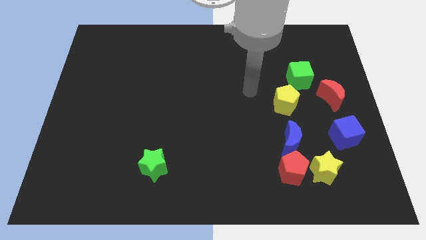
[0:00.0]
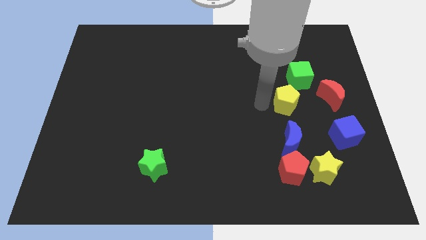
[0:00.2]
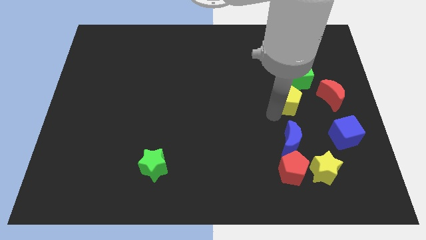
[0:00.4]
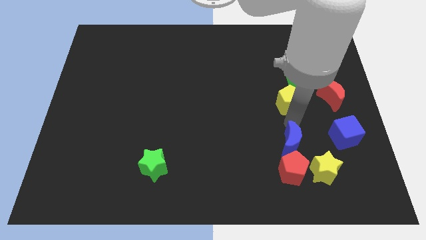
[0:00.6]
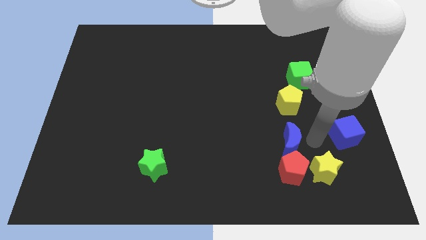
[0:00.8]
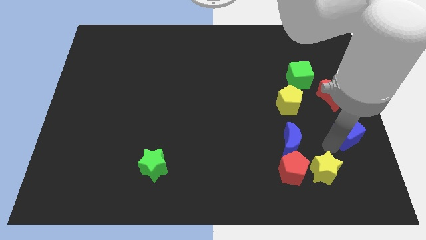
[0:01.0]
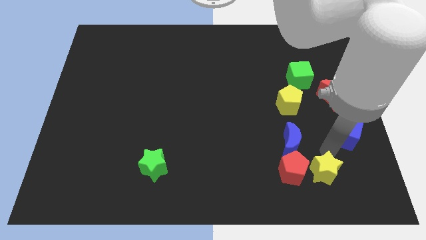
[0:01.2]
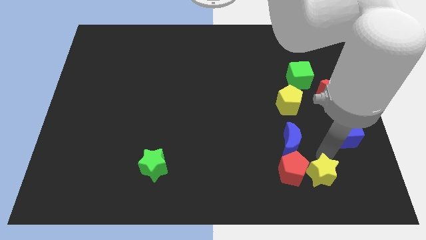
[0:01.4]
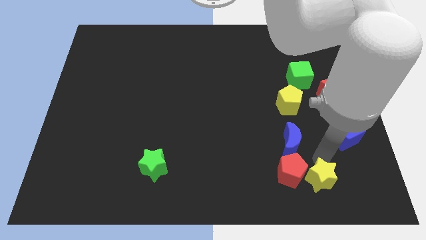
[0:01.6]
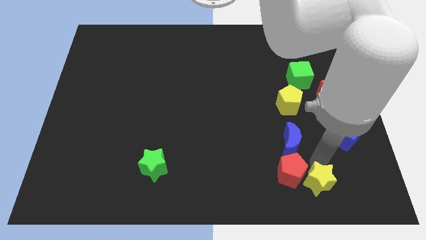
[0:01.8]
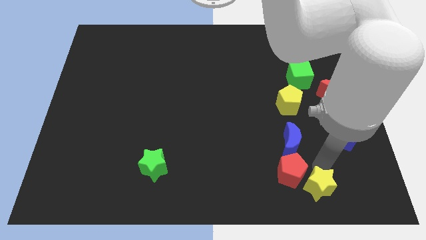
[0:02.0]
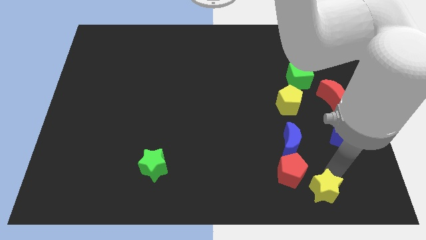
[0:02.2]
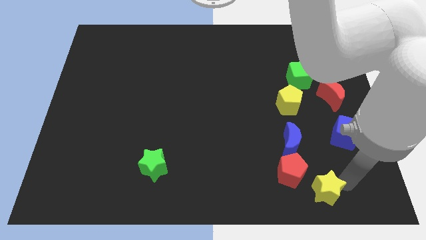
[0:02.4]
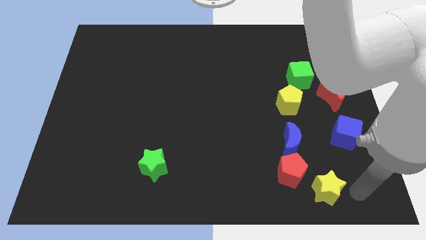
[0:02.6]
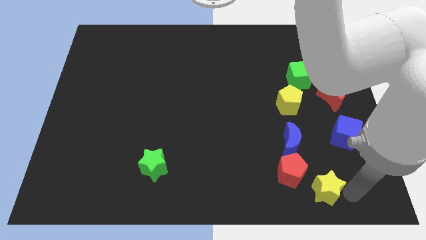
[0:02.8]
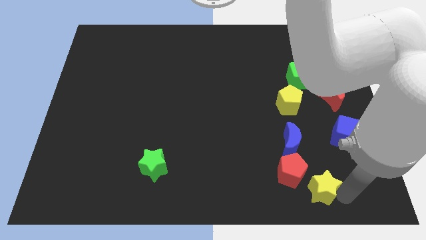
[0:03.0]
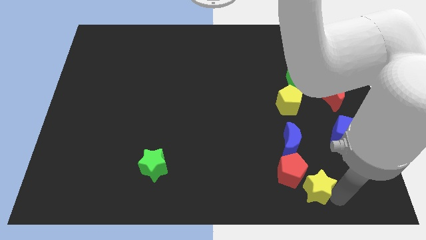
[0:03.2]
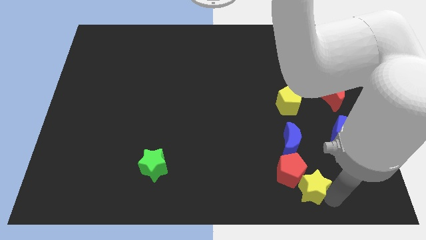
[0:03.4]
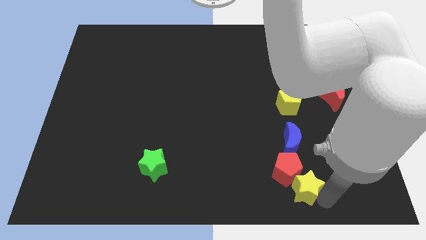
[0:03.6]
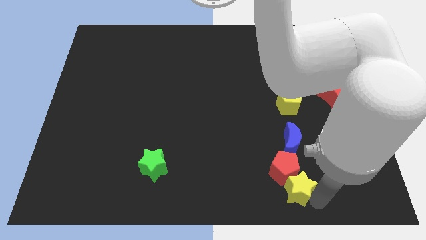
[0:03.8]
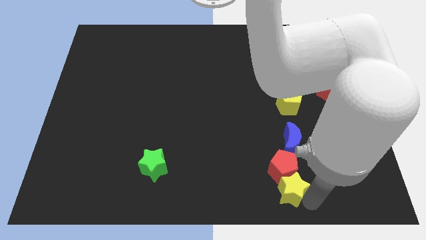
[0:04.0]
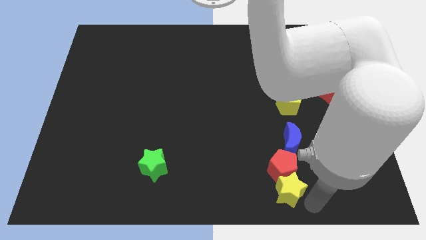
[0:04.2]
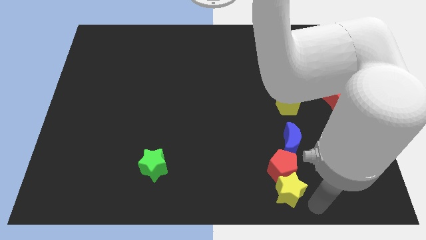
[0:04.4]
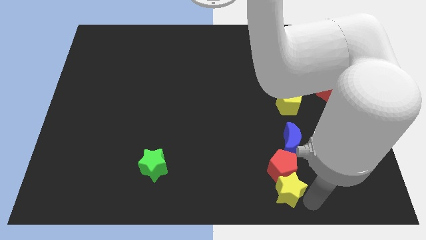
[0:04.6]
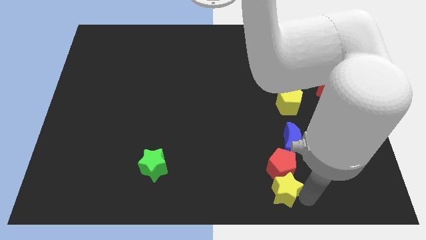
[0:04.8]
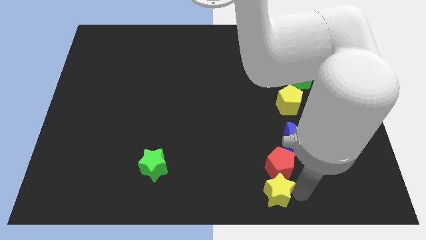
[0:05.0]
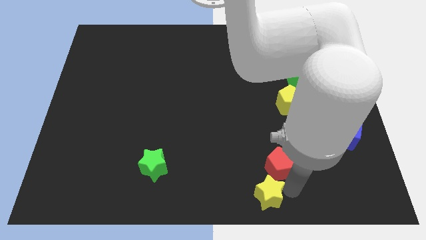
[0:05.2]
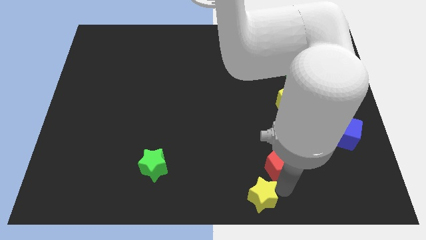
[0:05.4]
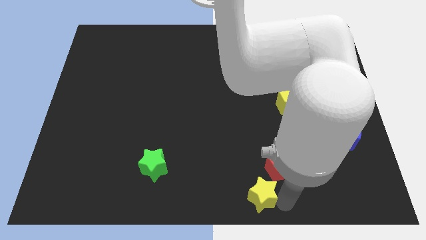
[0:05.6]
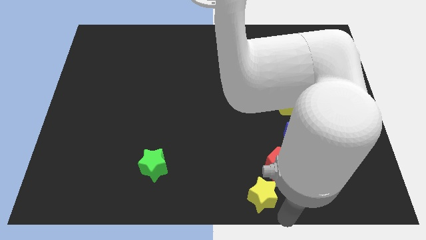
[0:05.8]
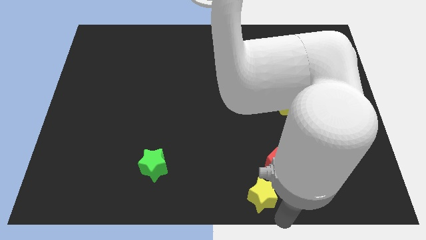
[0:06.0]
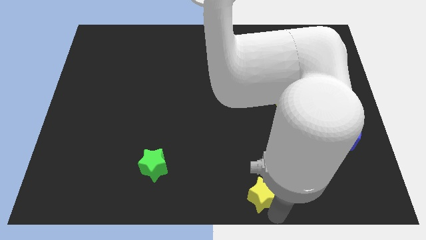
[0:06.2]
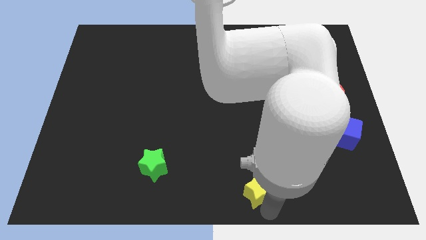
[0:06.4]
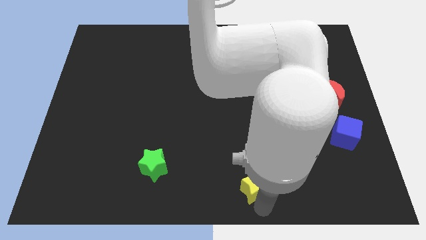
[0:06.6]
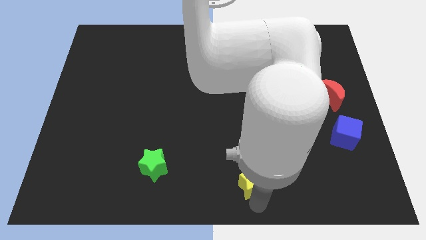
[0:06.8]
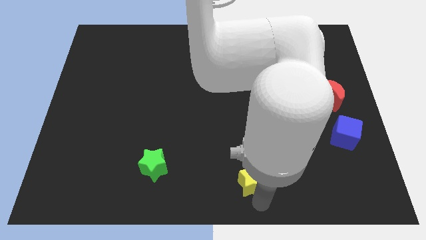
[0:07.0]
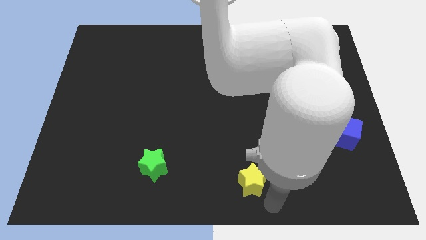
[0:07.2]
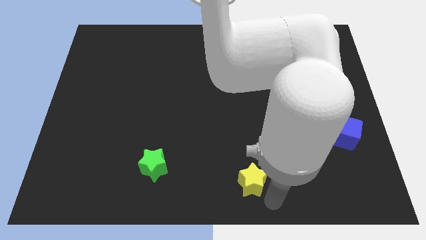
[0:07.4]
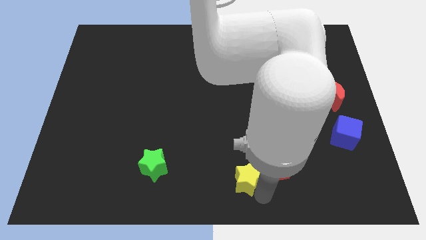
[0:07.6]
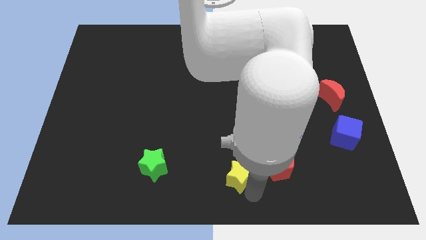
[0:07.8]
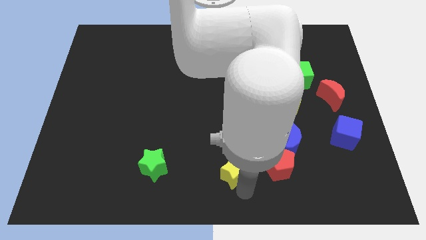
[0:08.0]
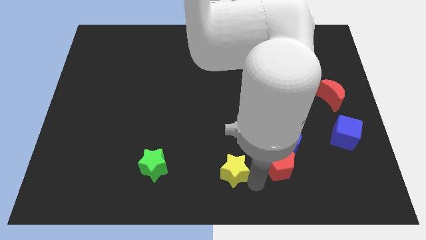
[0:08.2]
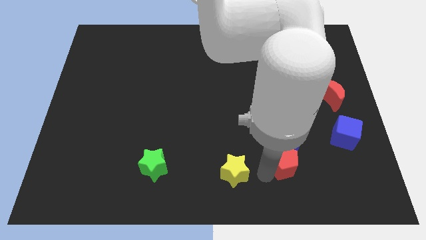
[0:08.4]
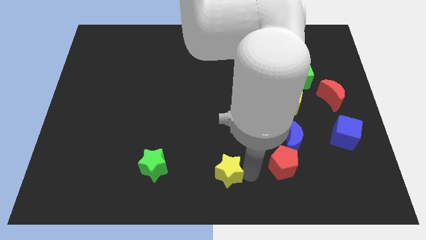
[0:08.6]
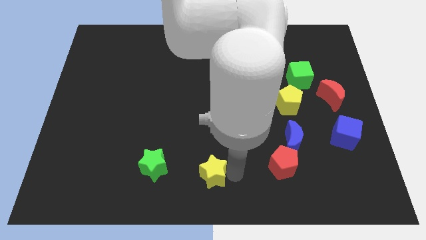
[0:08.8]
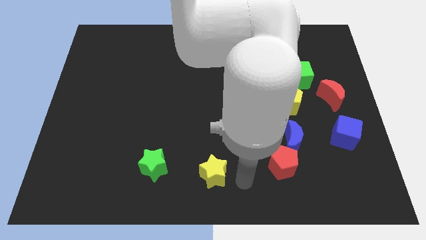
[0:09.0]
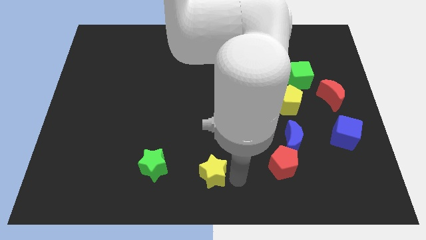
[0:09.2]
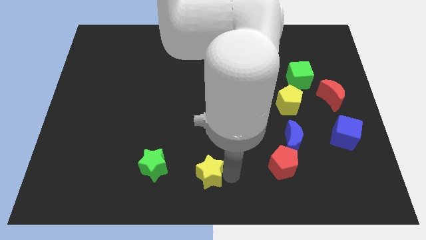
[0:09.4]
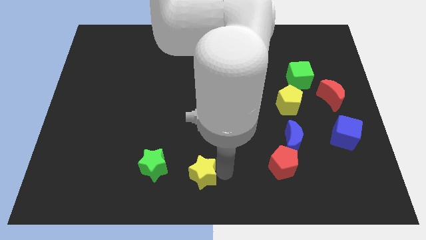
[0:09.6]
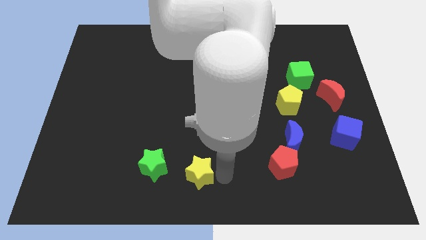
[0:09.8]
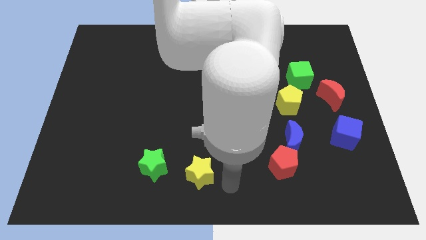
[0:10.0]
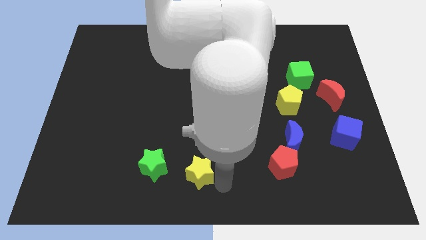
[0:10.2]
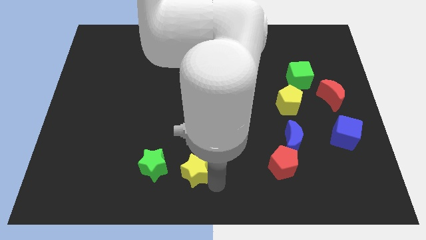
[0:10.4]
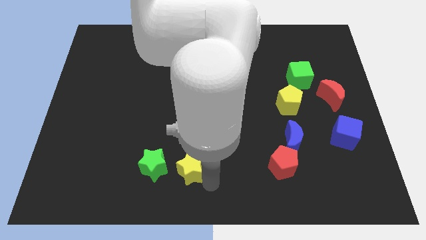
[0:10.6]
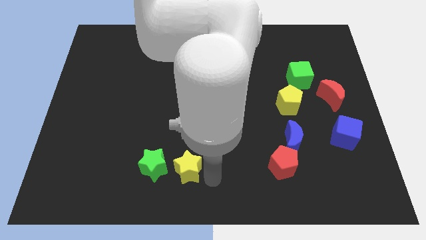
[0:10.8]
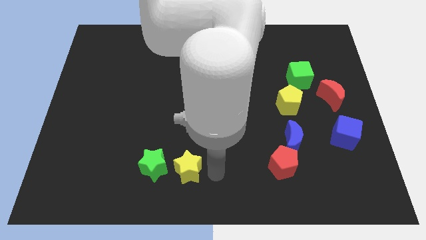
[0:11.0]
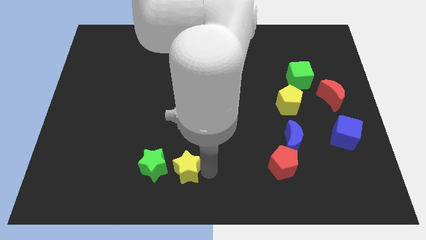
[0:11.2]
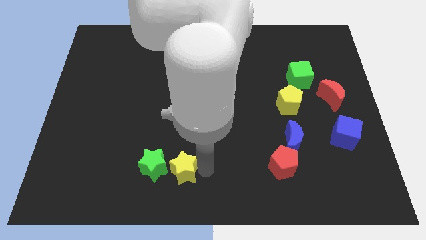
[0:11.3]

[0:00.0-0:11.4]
move the yellow star towards the green star

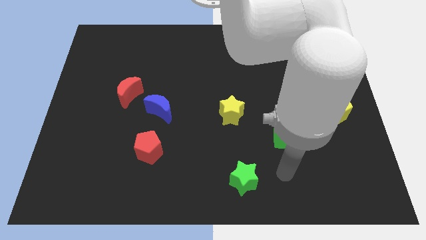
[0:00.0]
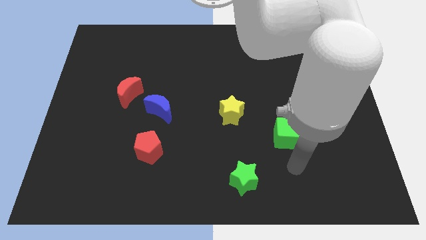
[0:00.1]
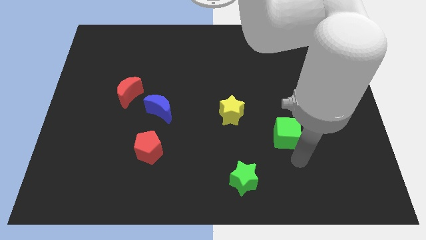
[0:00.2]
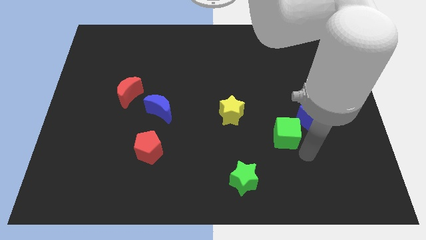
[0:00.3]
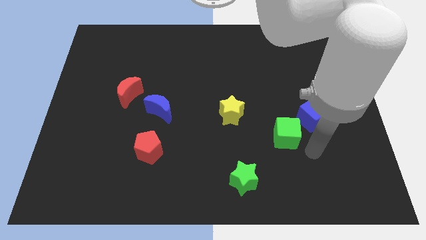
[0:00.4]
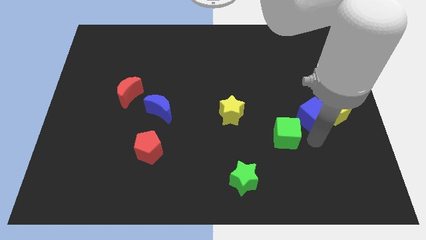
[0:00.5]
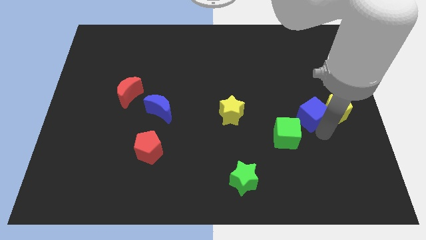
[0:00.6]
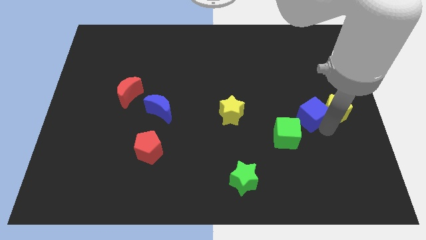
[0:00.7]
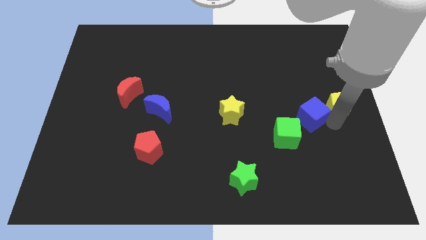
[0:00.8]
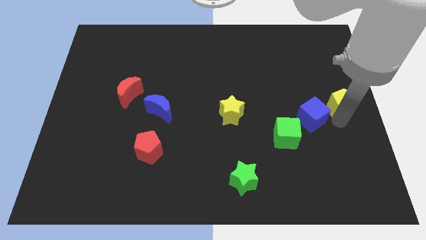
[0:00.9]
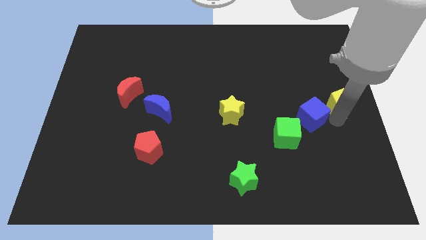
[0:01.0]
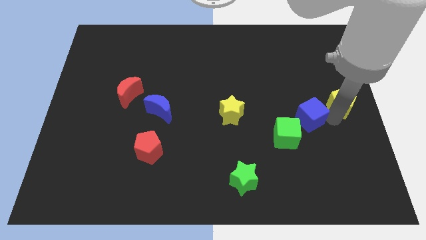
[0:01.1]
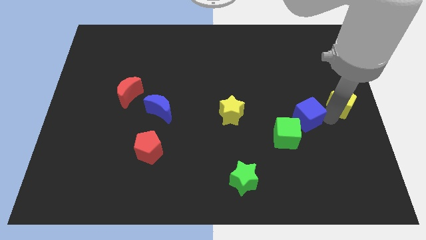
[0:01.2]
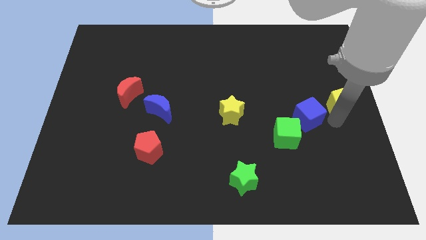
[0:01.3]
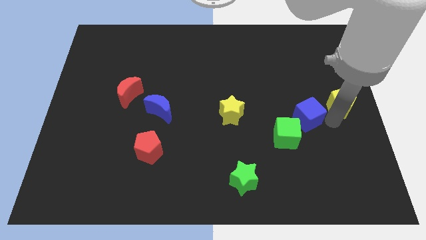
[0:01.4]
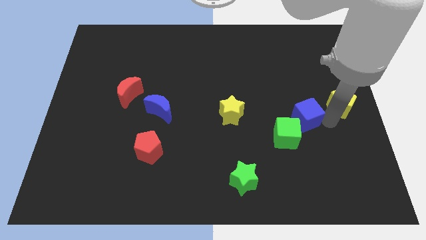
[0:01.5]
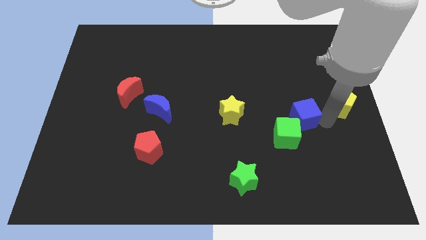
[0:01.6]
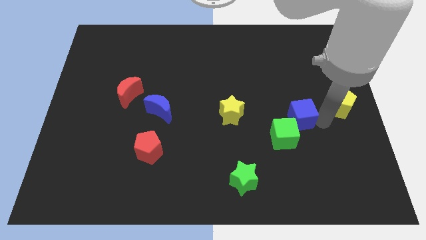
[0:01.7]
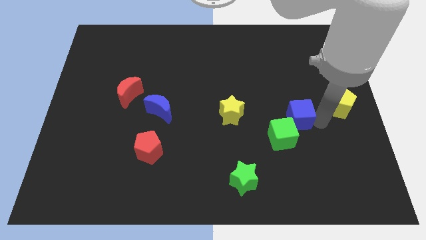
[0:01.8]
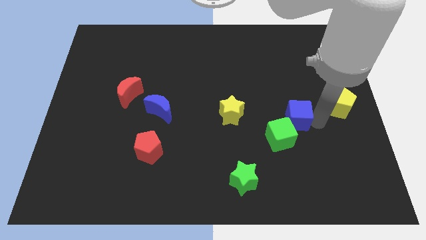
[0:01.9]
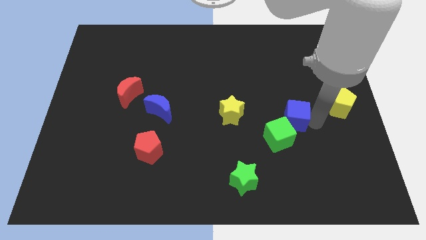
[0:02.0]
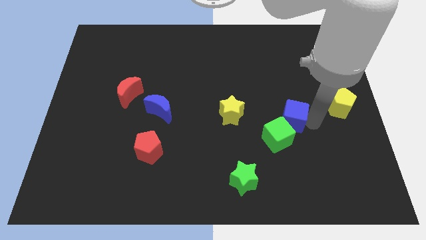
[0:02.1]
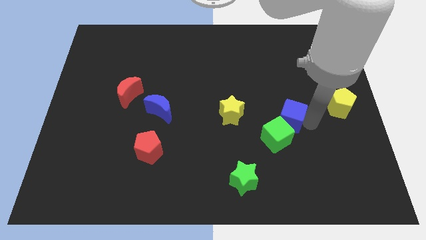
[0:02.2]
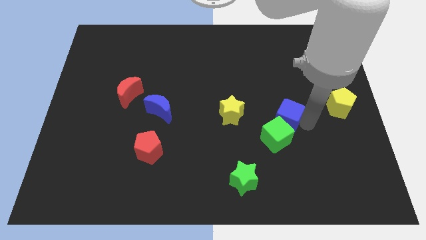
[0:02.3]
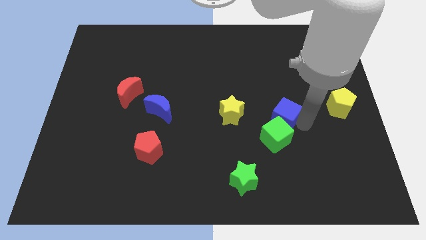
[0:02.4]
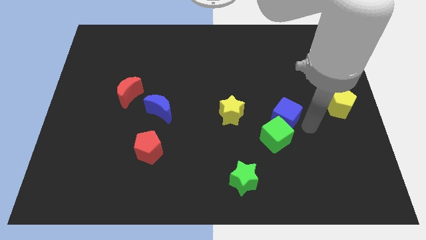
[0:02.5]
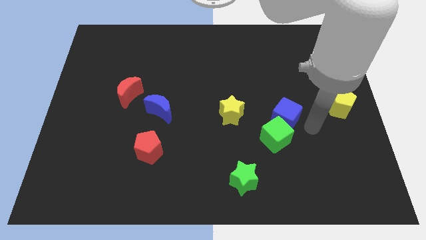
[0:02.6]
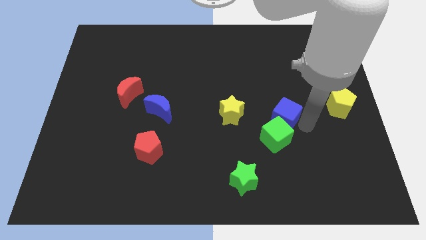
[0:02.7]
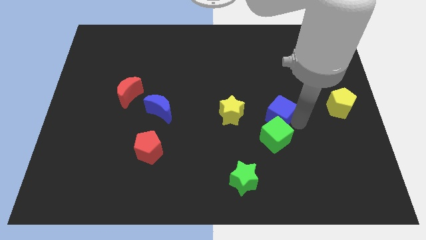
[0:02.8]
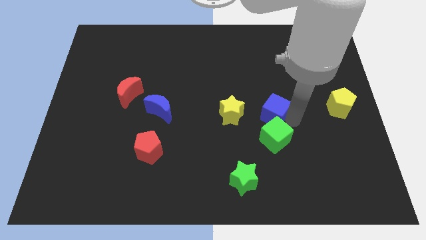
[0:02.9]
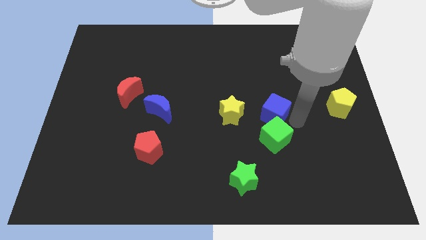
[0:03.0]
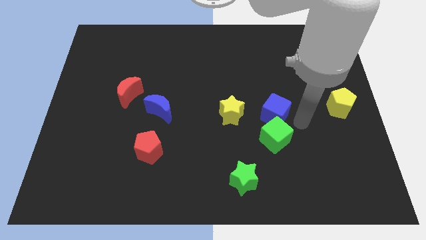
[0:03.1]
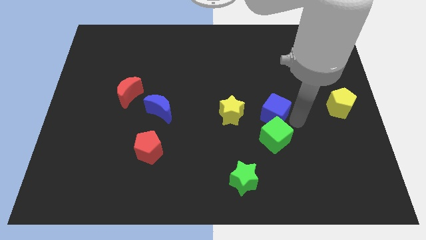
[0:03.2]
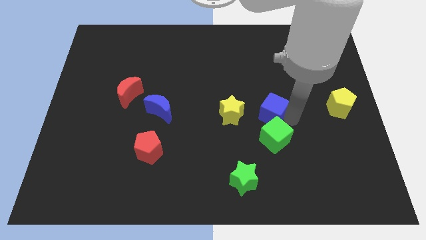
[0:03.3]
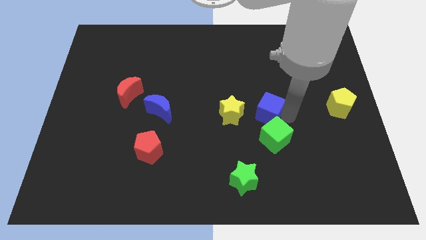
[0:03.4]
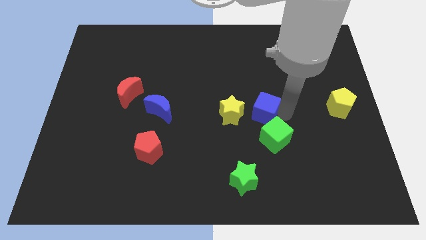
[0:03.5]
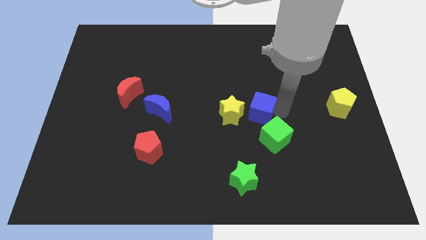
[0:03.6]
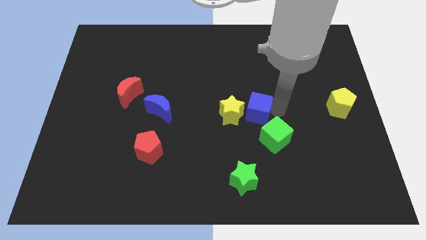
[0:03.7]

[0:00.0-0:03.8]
move the blue cube close to the yellow star
